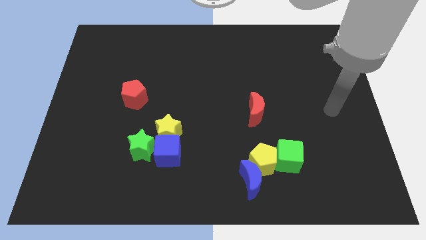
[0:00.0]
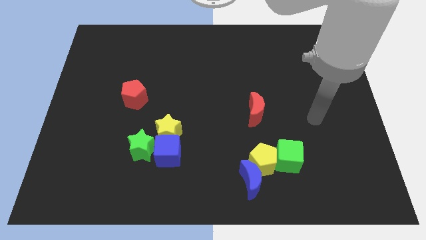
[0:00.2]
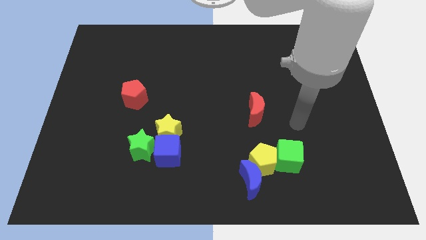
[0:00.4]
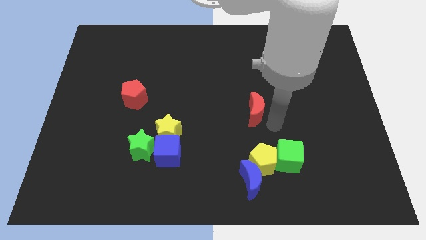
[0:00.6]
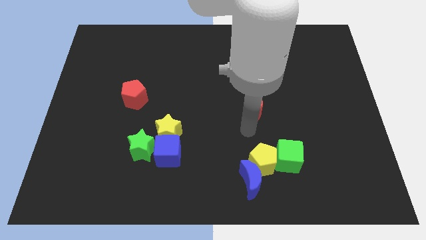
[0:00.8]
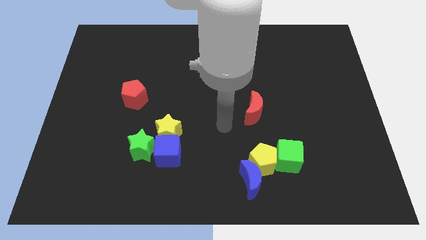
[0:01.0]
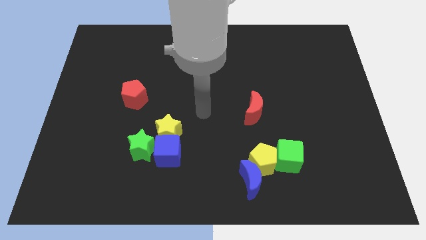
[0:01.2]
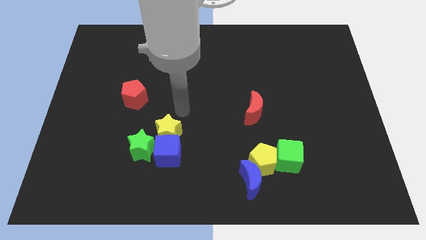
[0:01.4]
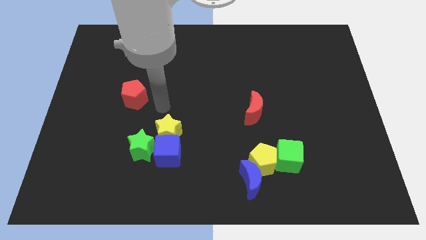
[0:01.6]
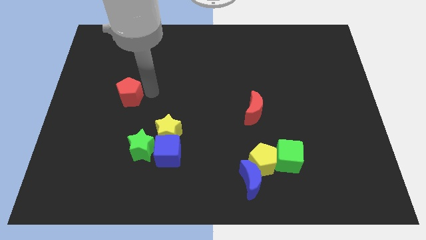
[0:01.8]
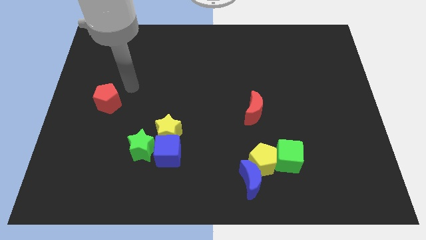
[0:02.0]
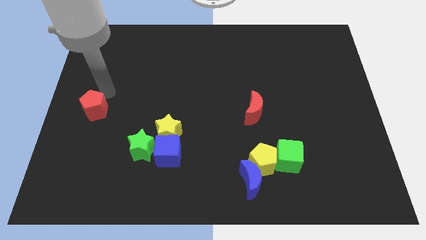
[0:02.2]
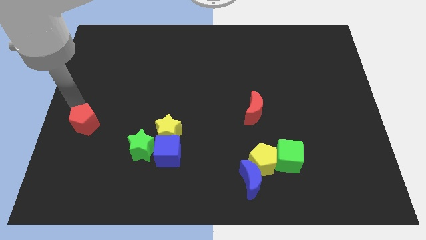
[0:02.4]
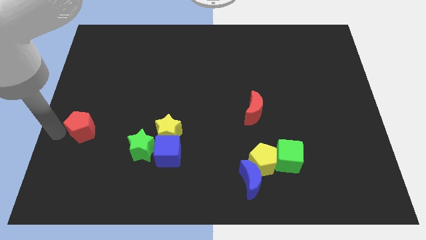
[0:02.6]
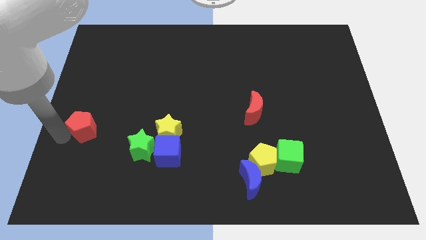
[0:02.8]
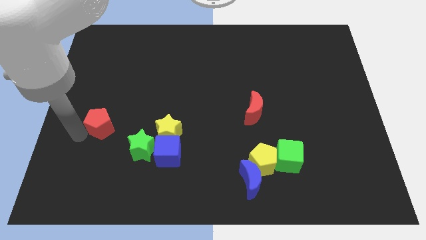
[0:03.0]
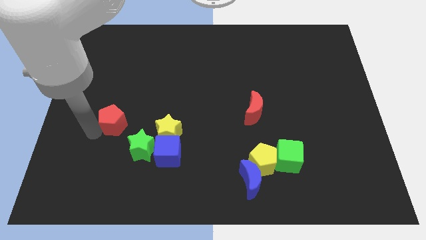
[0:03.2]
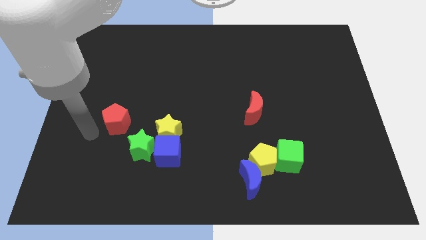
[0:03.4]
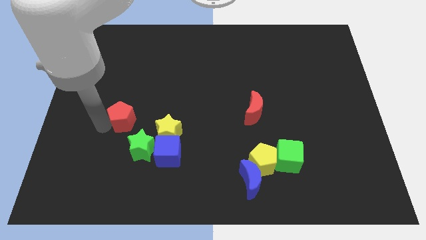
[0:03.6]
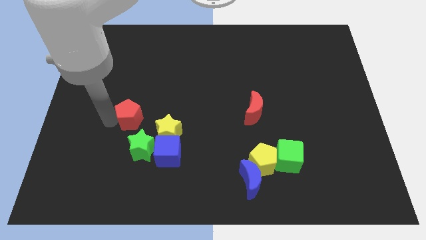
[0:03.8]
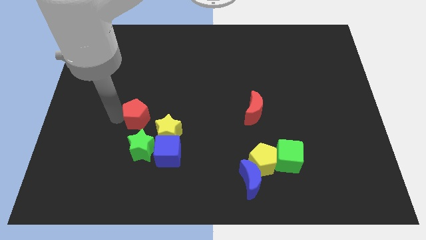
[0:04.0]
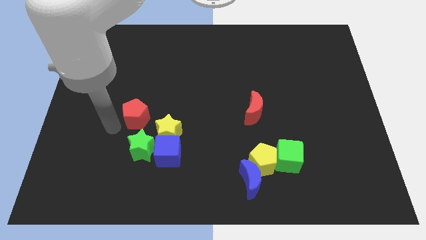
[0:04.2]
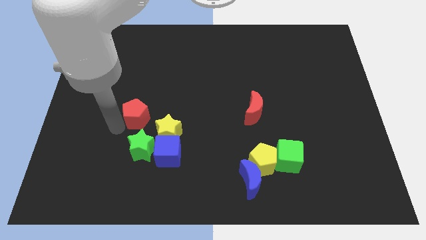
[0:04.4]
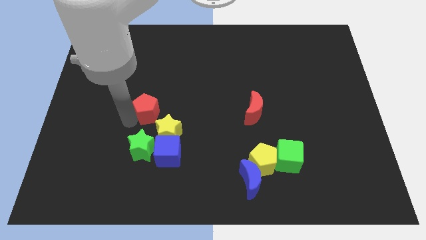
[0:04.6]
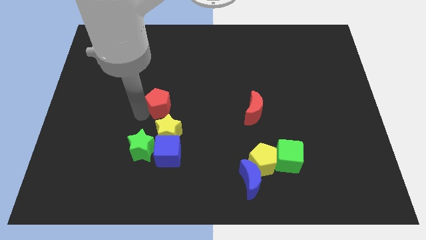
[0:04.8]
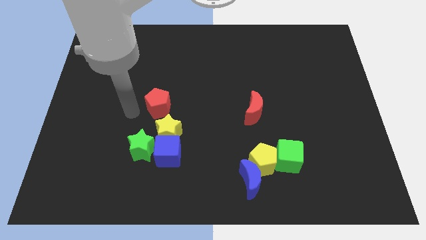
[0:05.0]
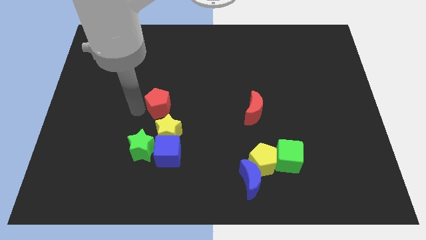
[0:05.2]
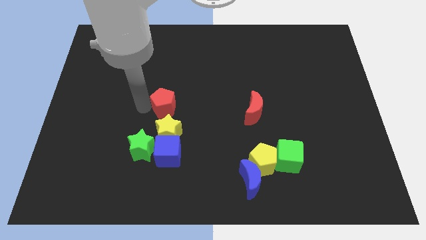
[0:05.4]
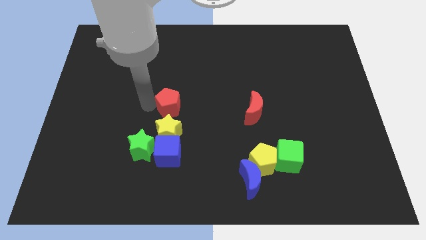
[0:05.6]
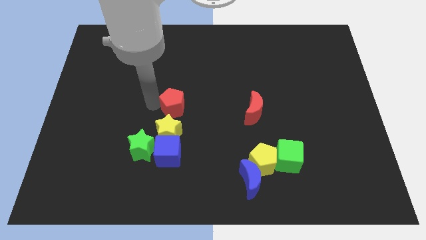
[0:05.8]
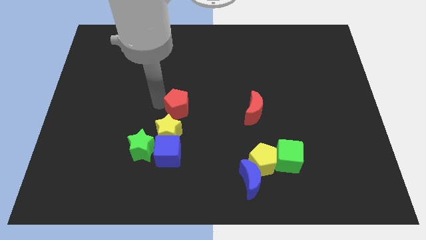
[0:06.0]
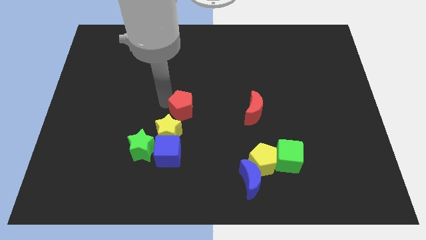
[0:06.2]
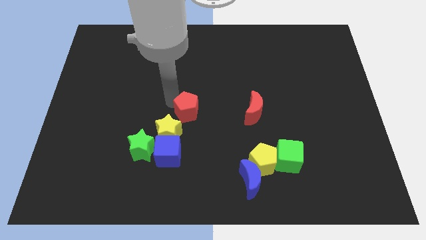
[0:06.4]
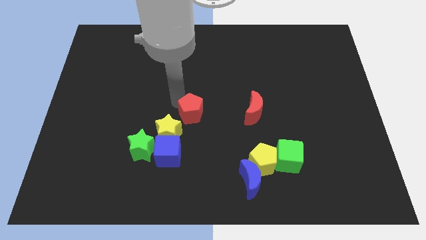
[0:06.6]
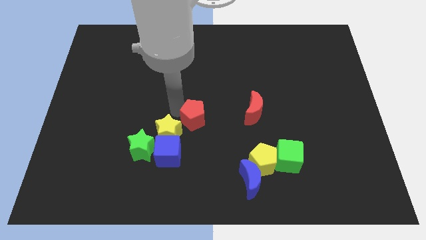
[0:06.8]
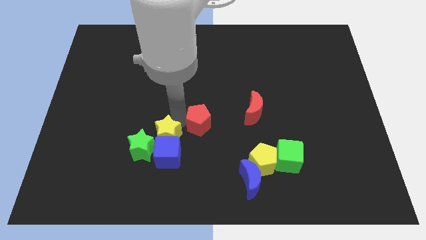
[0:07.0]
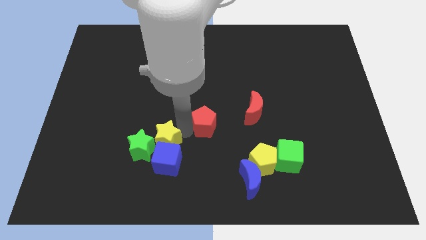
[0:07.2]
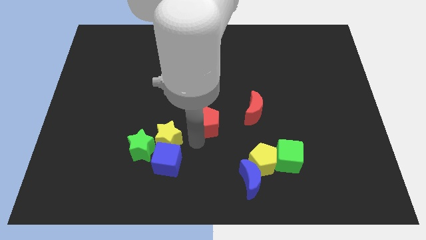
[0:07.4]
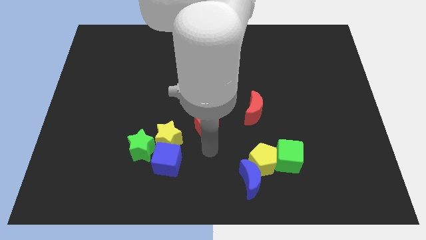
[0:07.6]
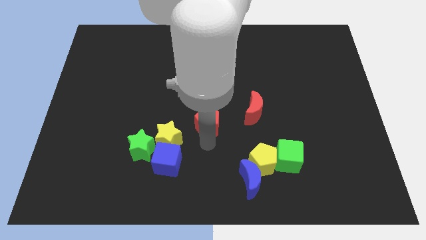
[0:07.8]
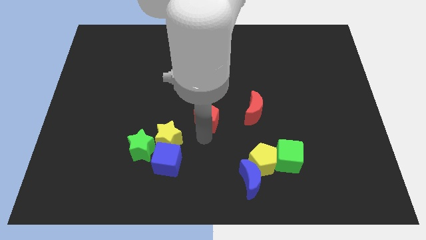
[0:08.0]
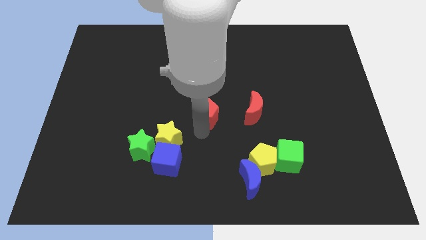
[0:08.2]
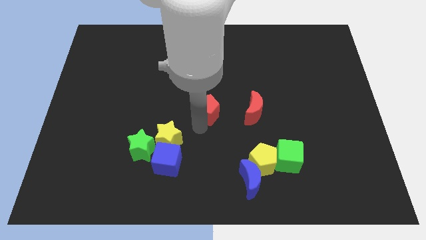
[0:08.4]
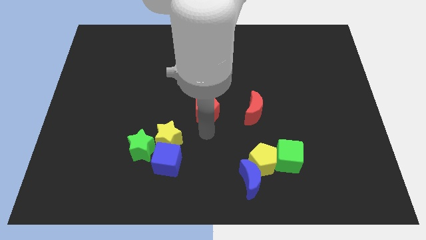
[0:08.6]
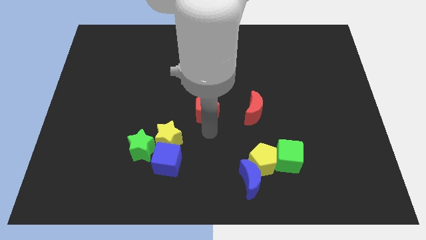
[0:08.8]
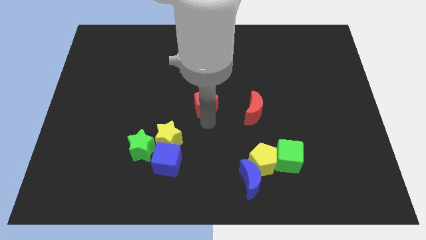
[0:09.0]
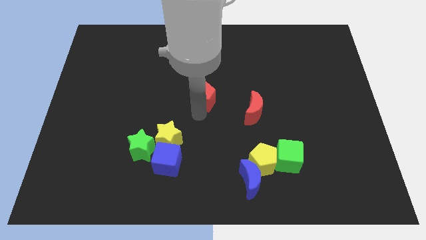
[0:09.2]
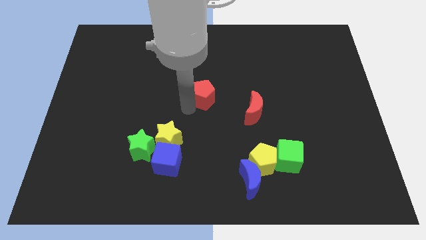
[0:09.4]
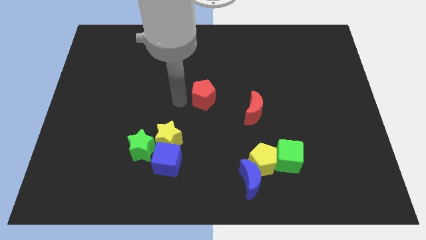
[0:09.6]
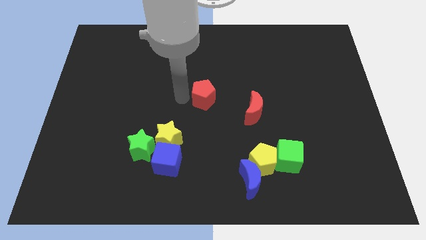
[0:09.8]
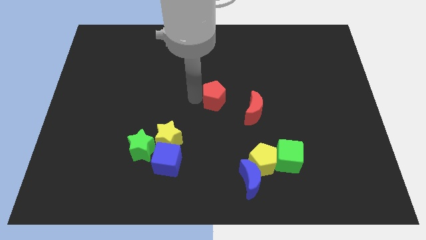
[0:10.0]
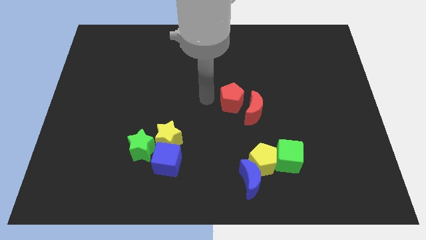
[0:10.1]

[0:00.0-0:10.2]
slide the red pentagon to the right

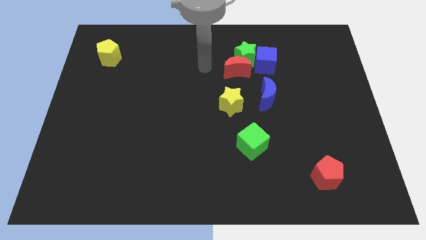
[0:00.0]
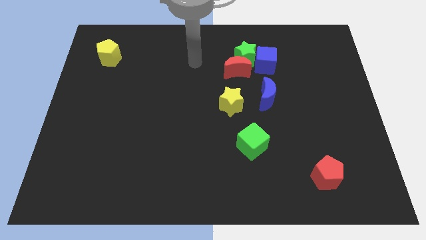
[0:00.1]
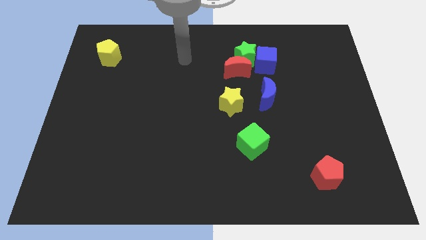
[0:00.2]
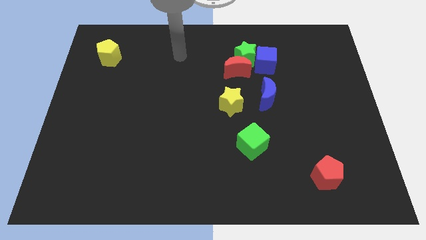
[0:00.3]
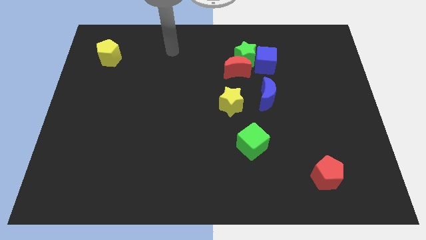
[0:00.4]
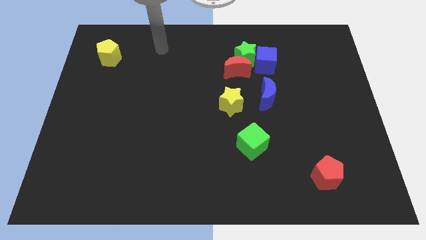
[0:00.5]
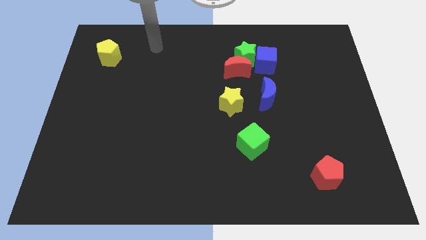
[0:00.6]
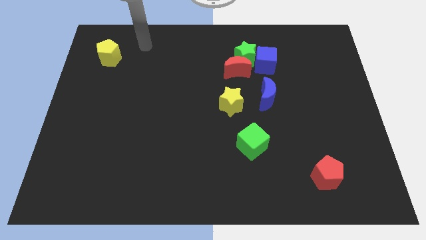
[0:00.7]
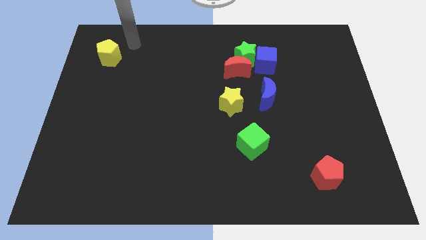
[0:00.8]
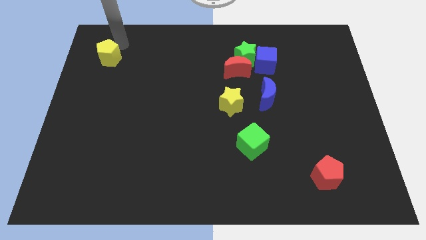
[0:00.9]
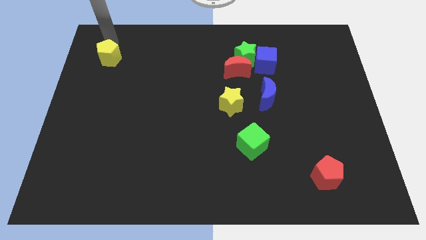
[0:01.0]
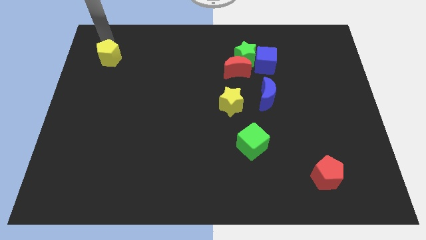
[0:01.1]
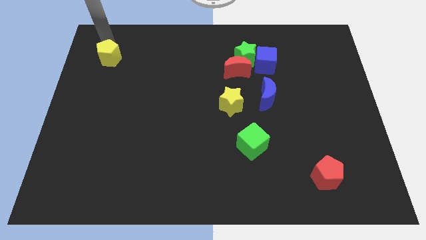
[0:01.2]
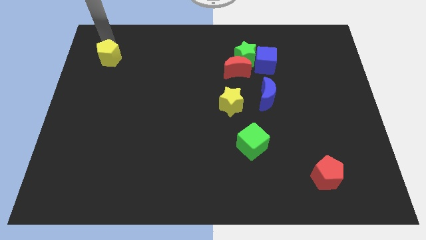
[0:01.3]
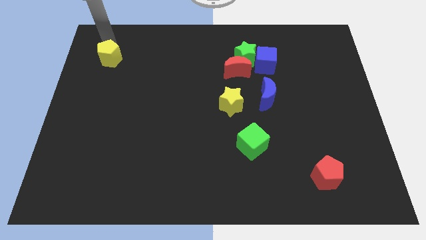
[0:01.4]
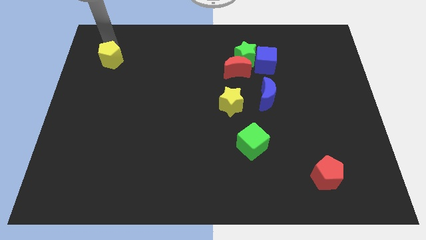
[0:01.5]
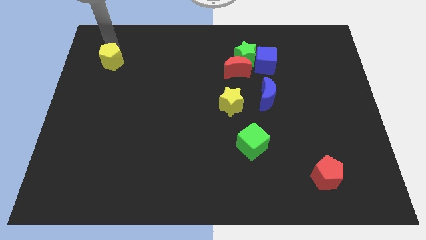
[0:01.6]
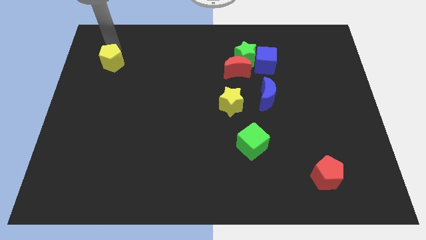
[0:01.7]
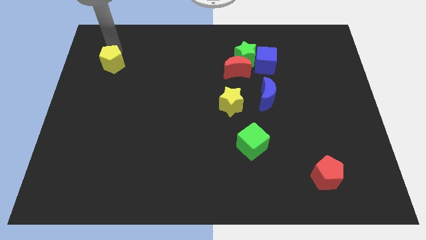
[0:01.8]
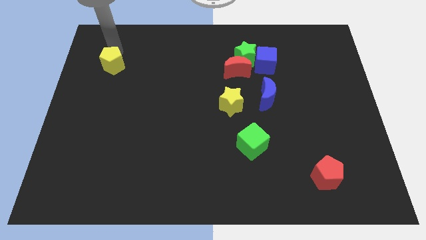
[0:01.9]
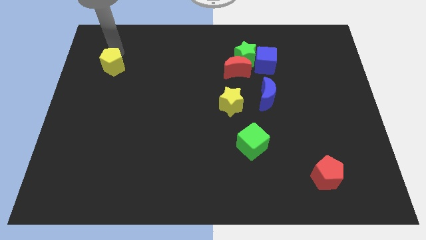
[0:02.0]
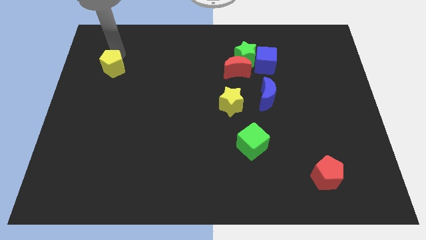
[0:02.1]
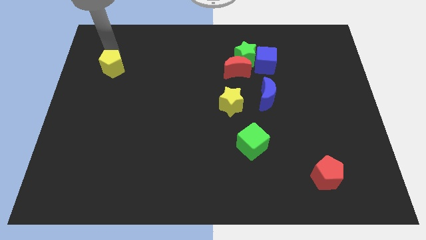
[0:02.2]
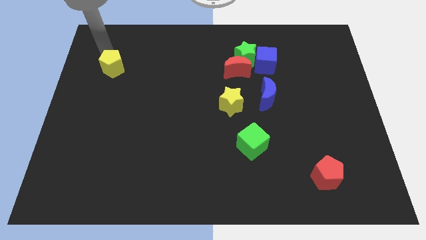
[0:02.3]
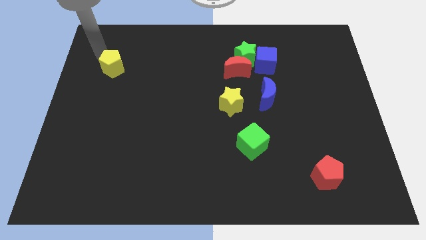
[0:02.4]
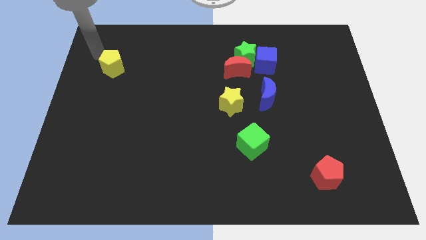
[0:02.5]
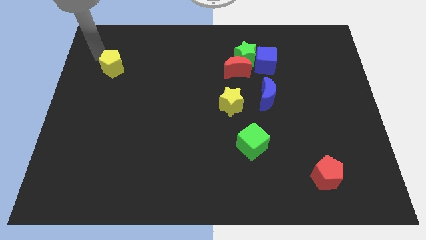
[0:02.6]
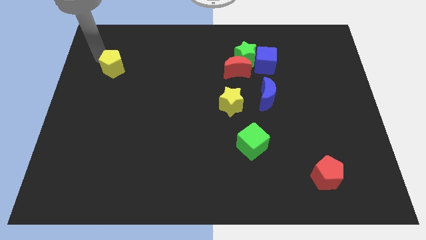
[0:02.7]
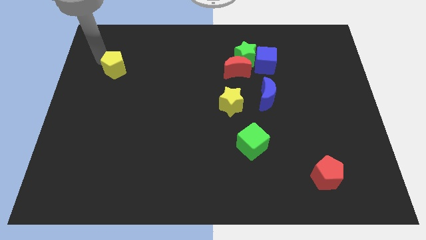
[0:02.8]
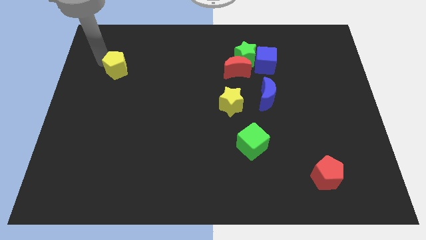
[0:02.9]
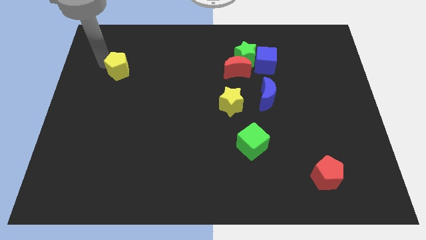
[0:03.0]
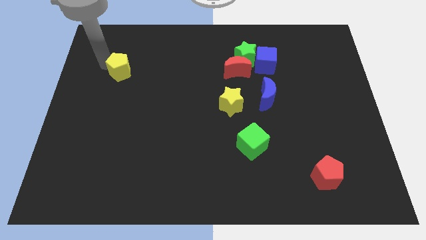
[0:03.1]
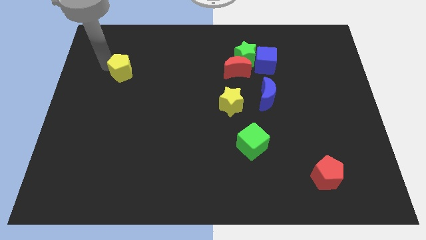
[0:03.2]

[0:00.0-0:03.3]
slide the yellow pentagon downwards and right slightly
